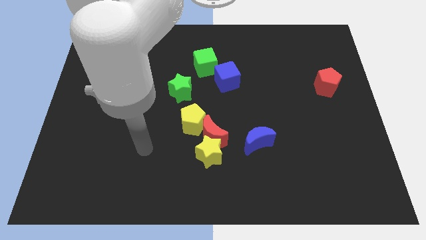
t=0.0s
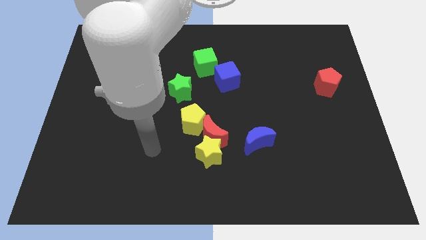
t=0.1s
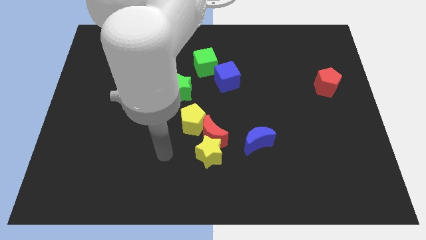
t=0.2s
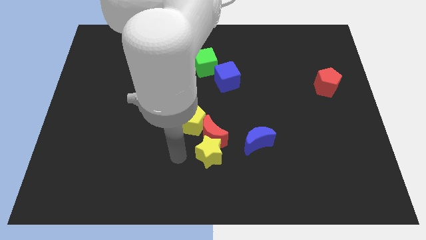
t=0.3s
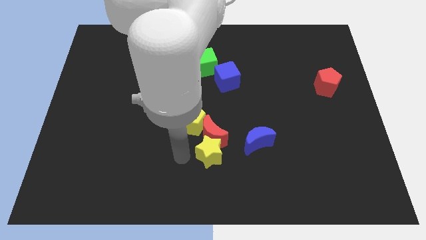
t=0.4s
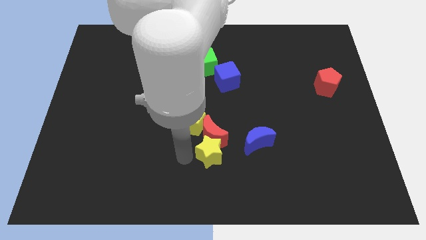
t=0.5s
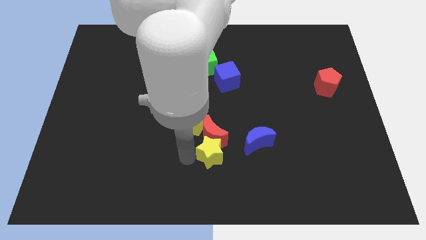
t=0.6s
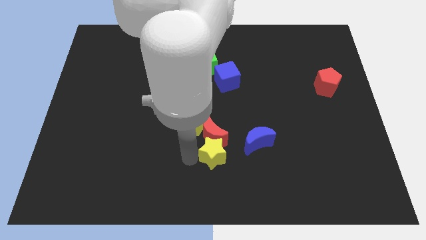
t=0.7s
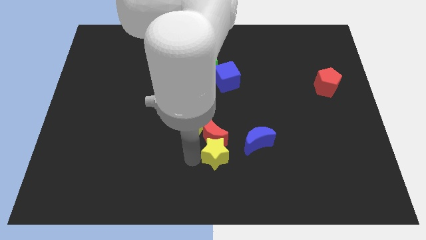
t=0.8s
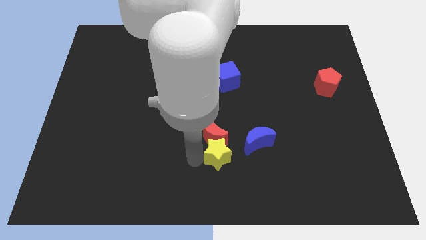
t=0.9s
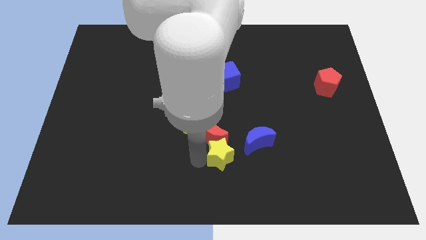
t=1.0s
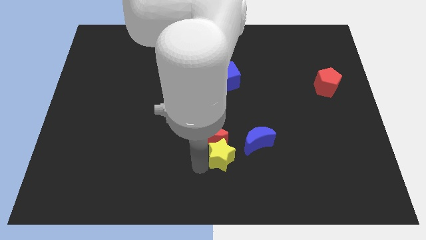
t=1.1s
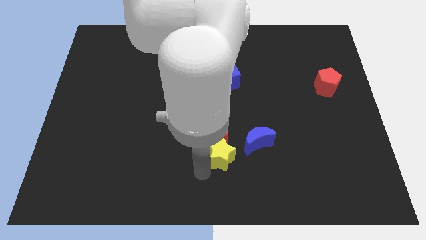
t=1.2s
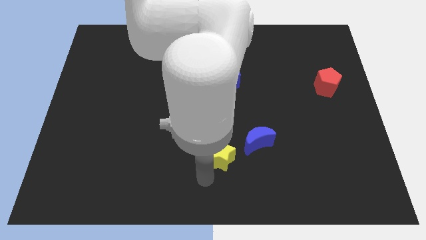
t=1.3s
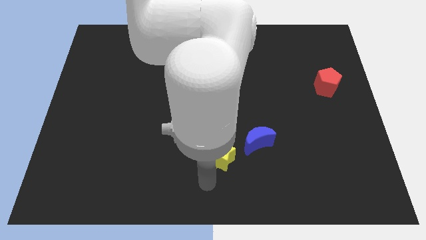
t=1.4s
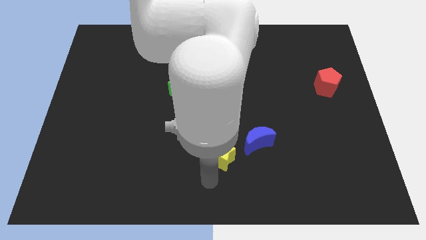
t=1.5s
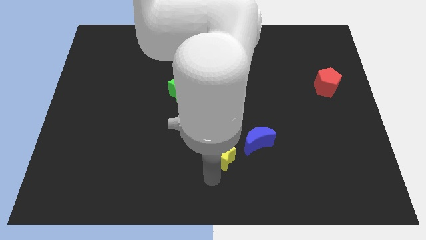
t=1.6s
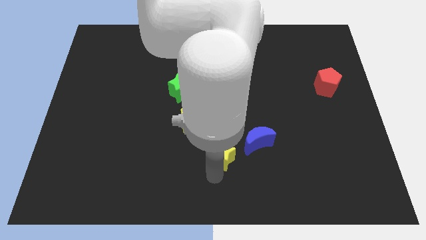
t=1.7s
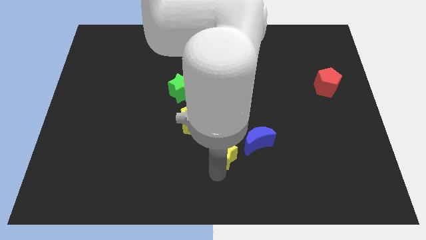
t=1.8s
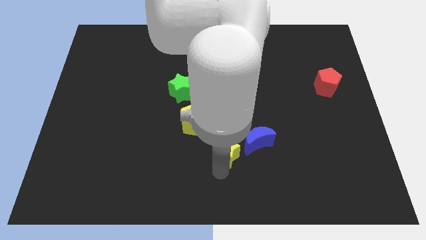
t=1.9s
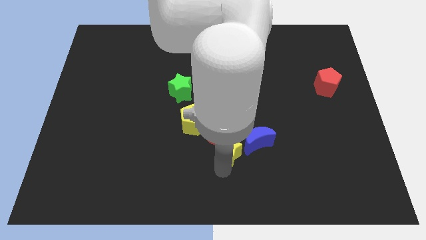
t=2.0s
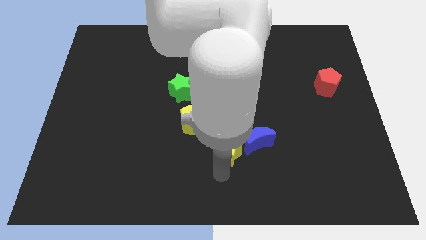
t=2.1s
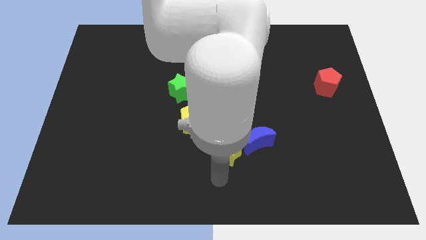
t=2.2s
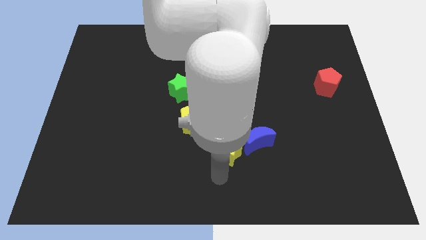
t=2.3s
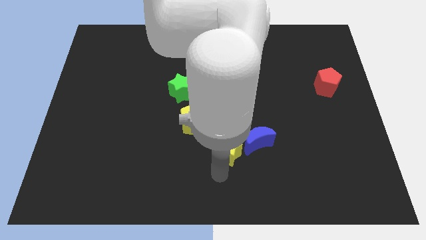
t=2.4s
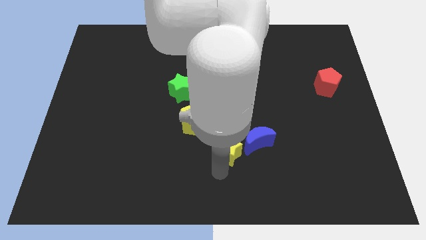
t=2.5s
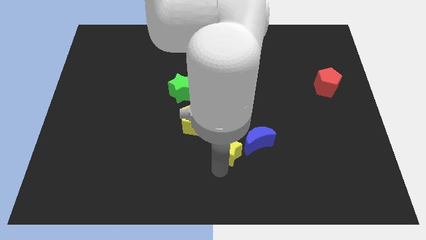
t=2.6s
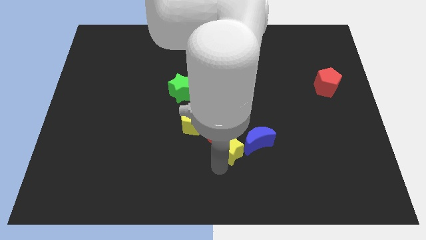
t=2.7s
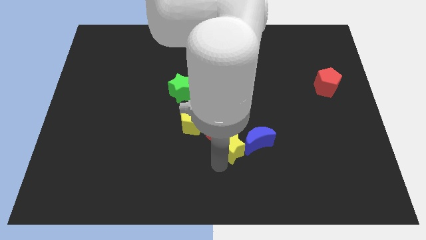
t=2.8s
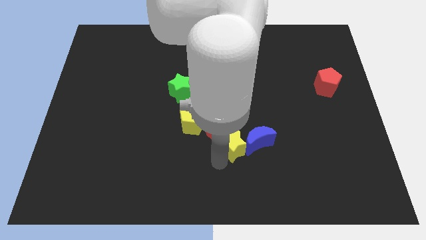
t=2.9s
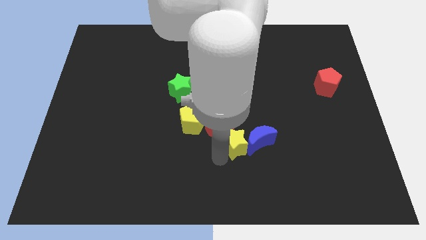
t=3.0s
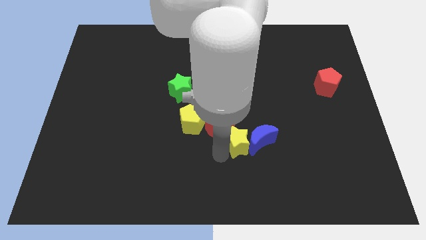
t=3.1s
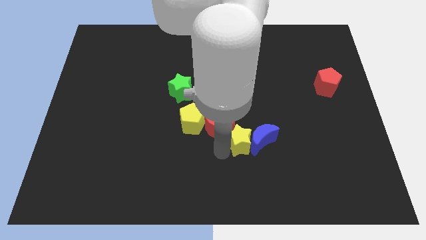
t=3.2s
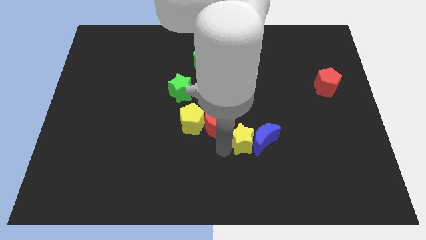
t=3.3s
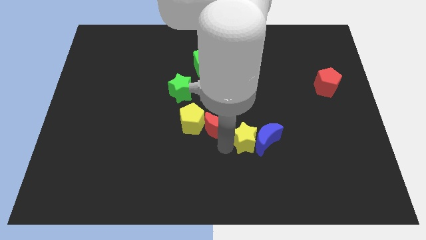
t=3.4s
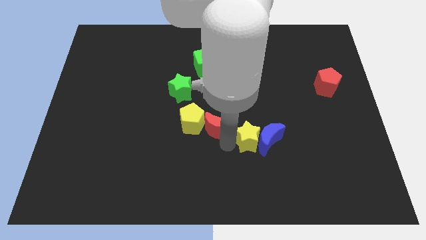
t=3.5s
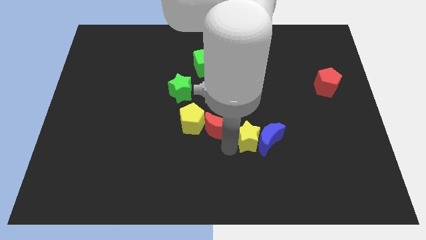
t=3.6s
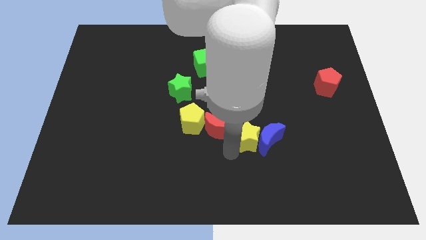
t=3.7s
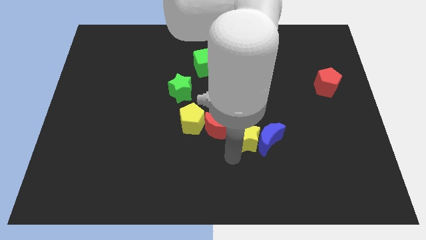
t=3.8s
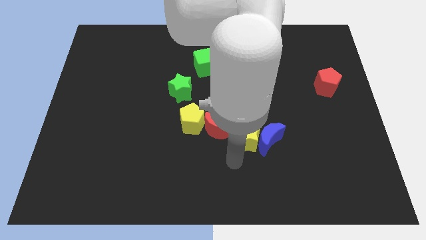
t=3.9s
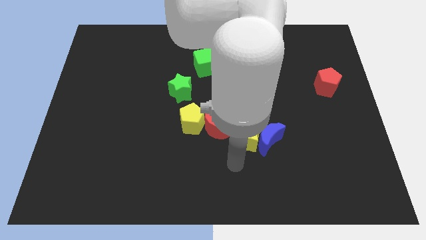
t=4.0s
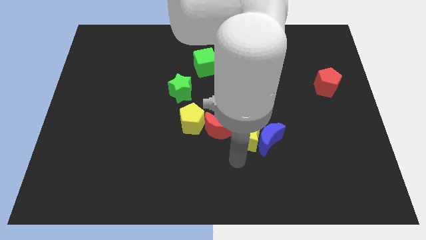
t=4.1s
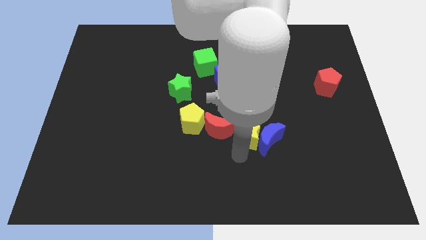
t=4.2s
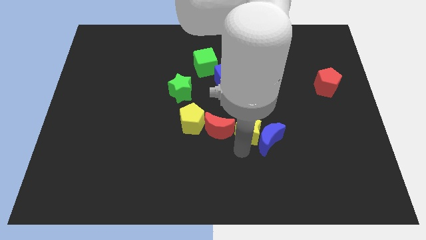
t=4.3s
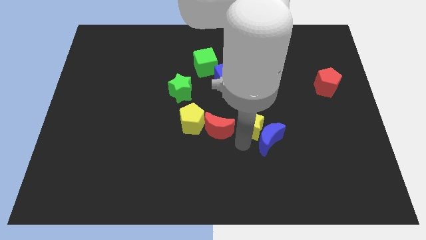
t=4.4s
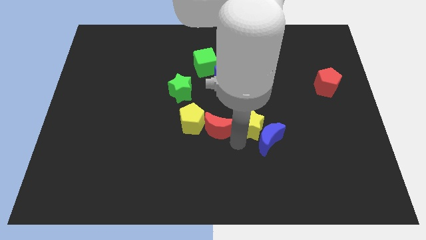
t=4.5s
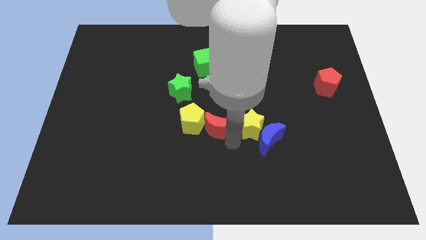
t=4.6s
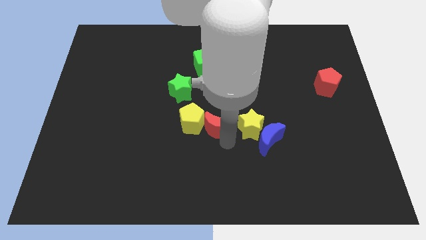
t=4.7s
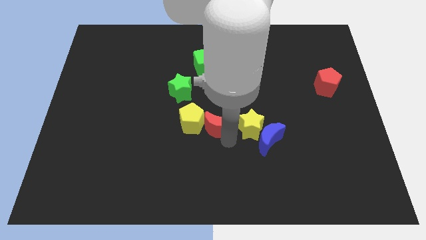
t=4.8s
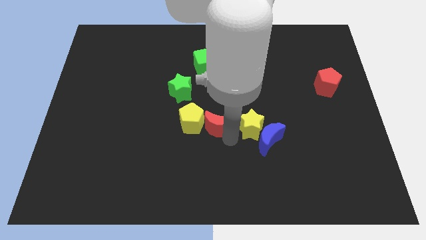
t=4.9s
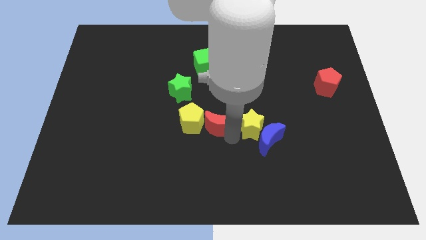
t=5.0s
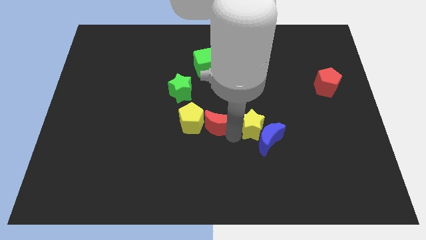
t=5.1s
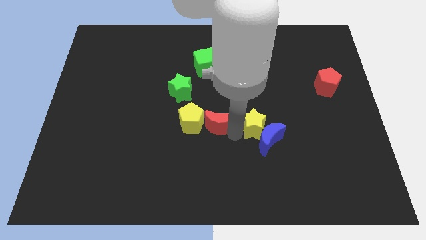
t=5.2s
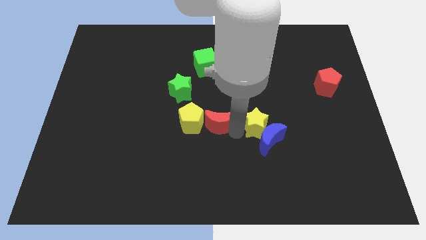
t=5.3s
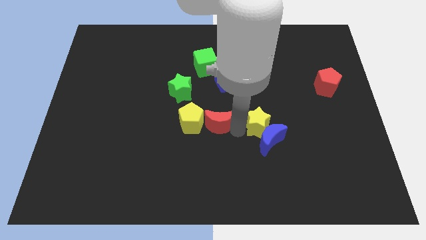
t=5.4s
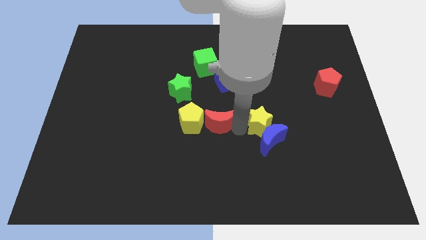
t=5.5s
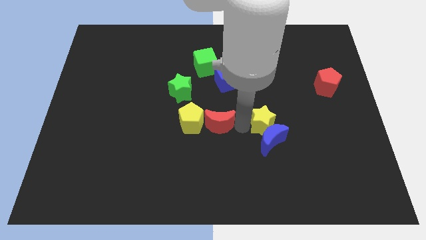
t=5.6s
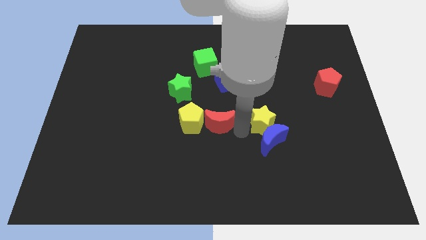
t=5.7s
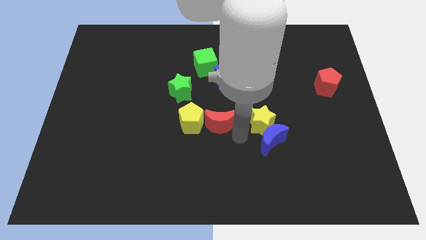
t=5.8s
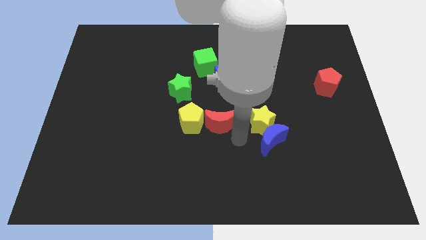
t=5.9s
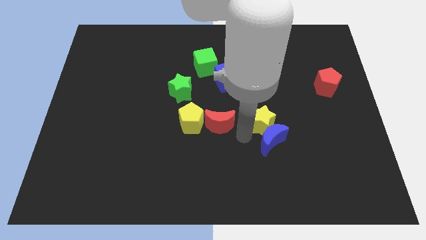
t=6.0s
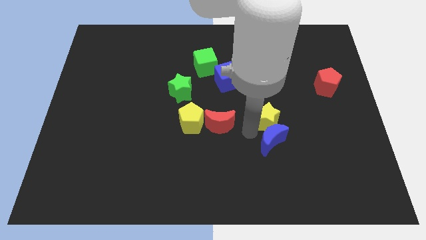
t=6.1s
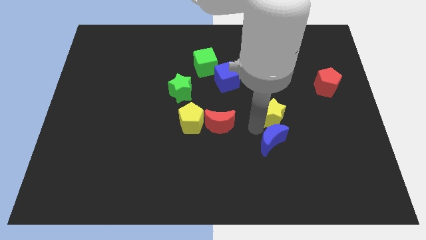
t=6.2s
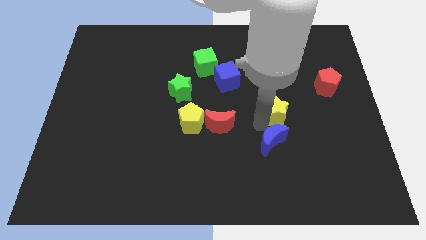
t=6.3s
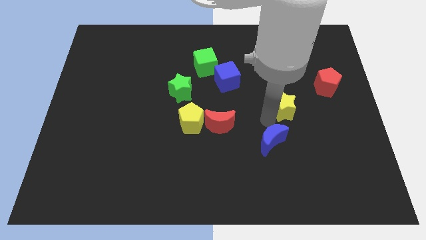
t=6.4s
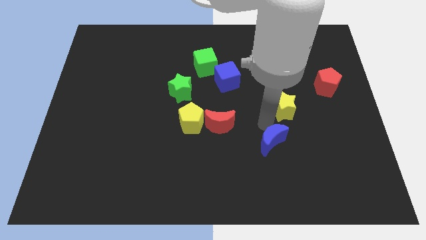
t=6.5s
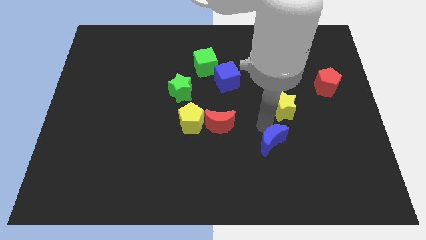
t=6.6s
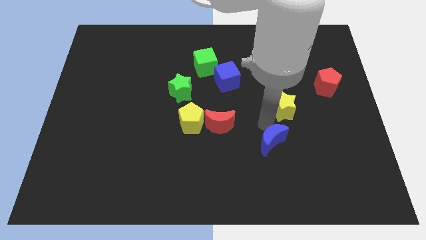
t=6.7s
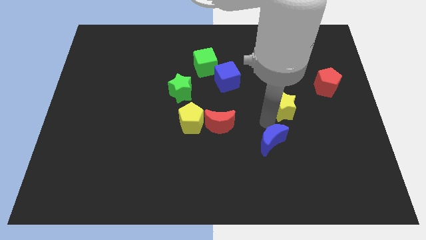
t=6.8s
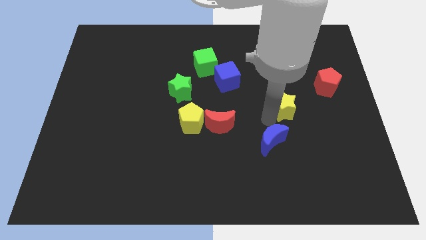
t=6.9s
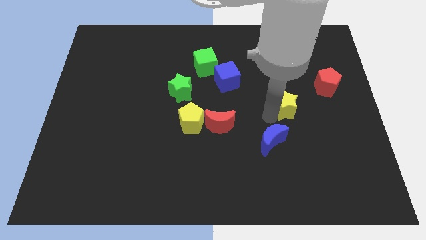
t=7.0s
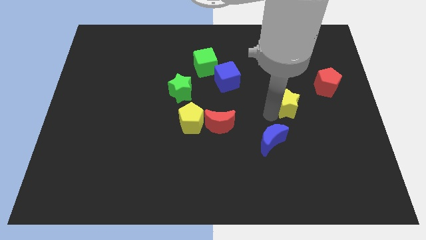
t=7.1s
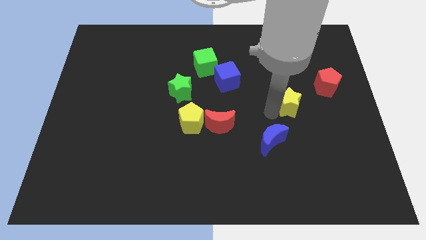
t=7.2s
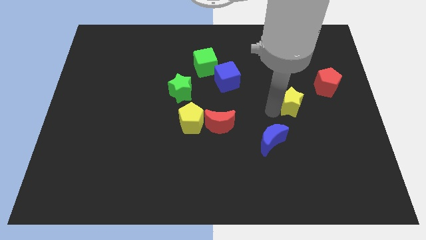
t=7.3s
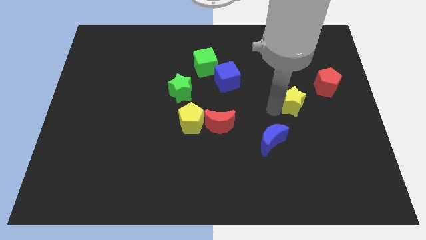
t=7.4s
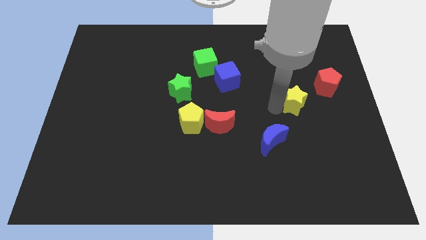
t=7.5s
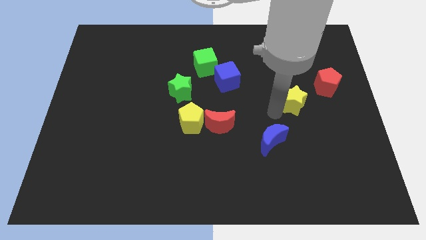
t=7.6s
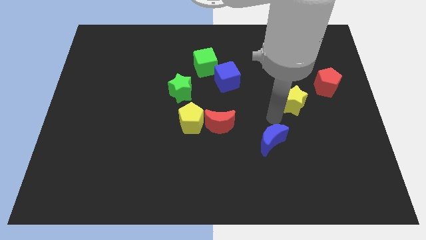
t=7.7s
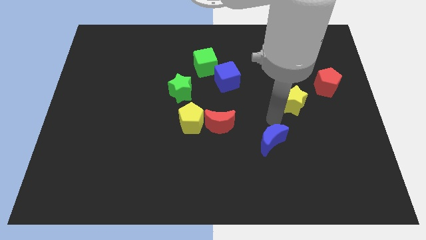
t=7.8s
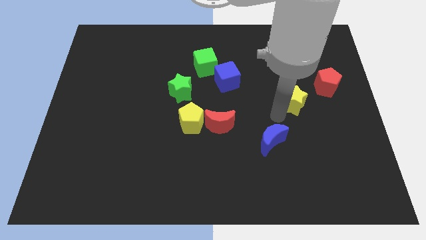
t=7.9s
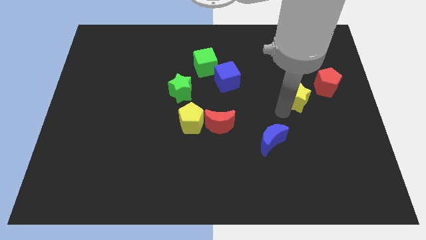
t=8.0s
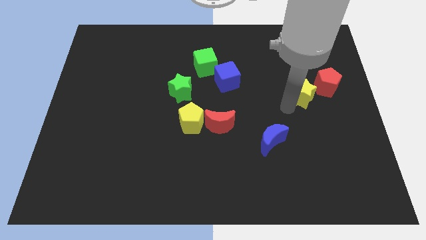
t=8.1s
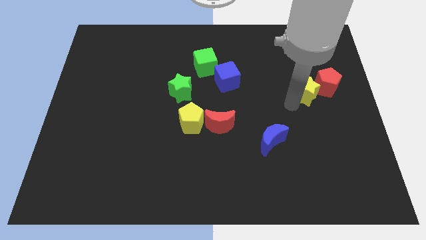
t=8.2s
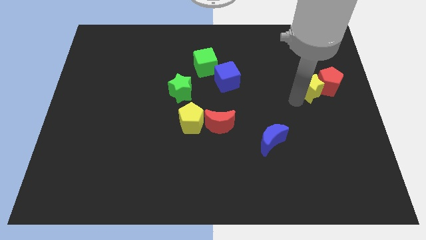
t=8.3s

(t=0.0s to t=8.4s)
slide the yellow star close to the red pentagon
